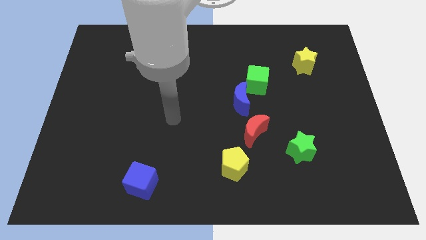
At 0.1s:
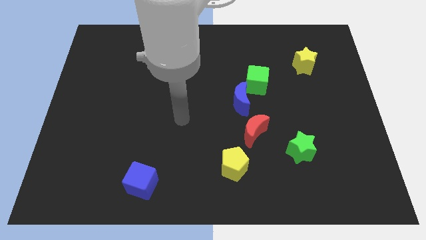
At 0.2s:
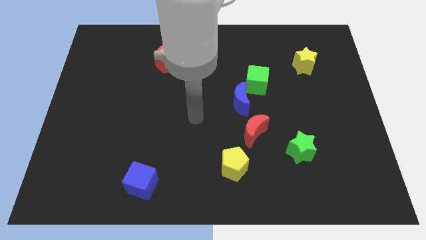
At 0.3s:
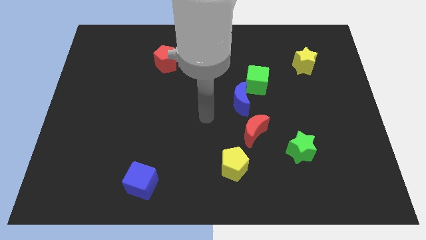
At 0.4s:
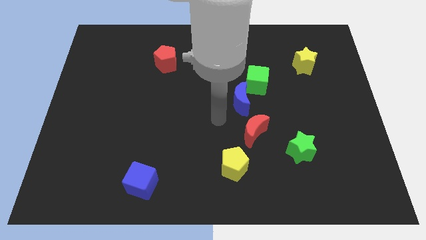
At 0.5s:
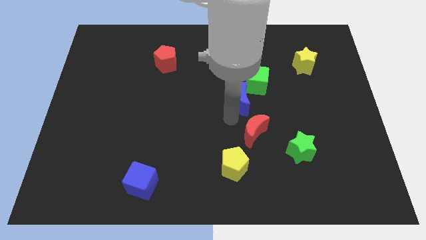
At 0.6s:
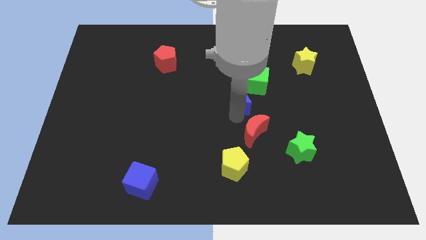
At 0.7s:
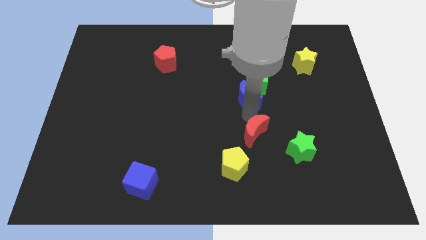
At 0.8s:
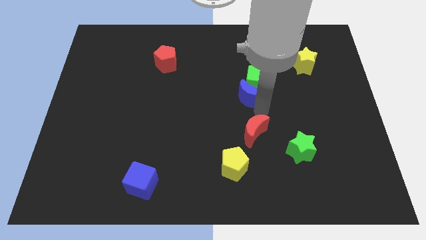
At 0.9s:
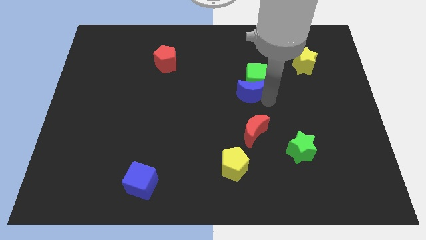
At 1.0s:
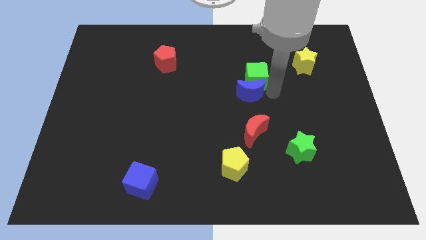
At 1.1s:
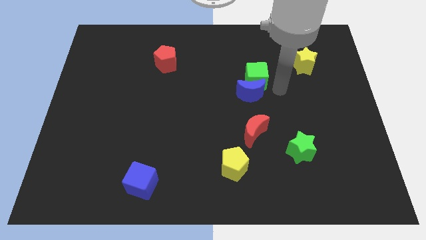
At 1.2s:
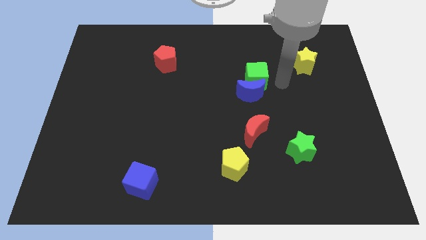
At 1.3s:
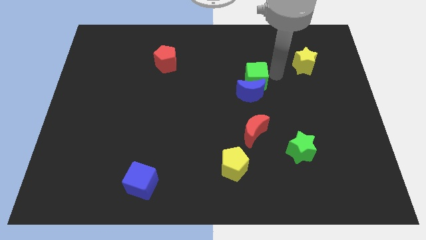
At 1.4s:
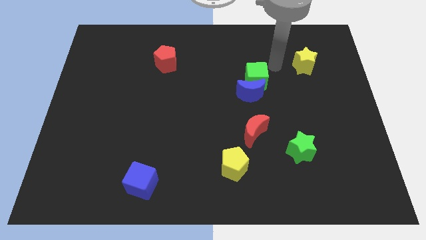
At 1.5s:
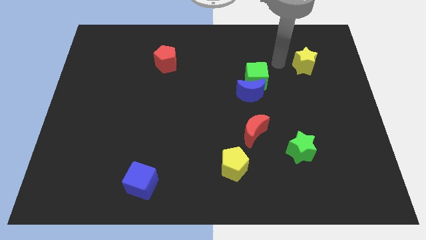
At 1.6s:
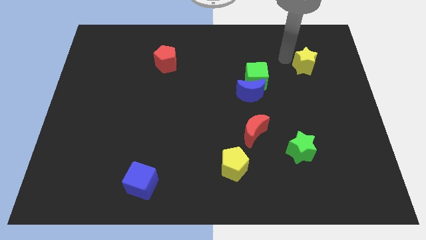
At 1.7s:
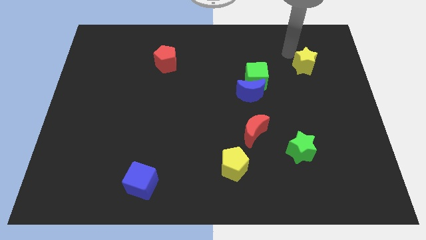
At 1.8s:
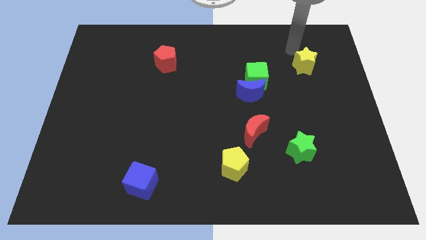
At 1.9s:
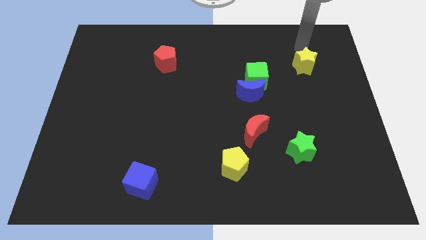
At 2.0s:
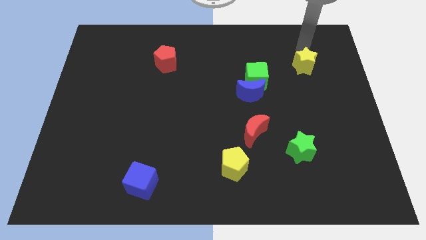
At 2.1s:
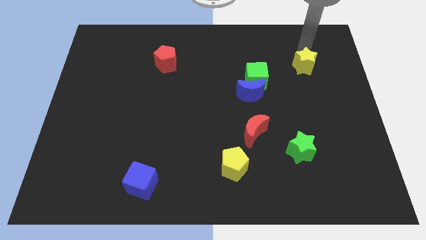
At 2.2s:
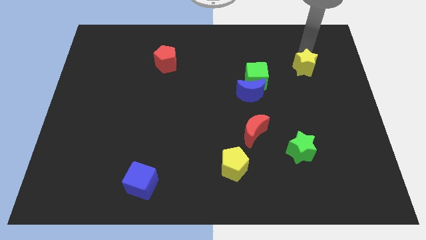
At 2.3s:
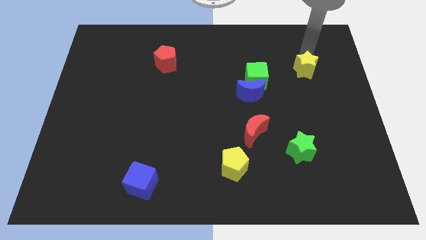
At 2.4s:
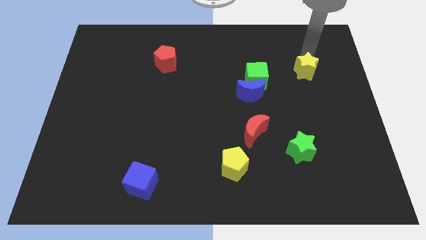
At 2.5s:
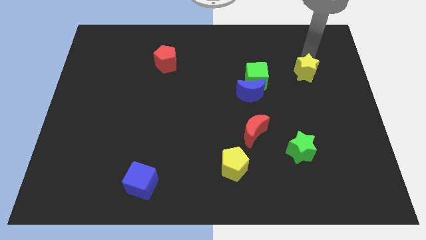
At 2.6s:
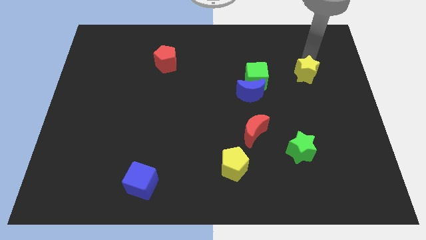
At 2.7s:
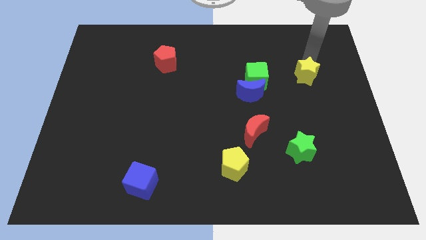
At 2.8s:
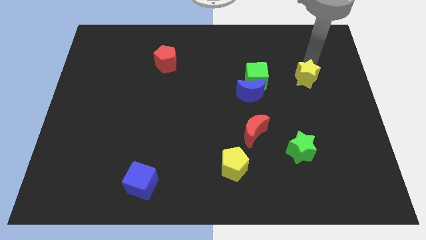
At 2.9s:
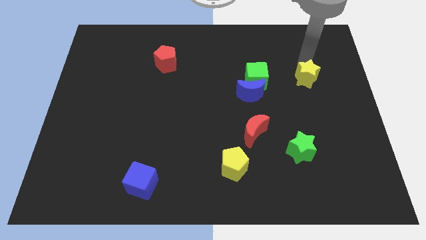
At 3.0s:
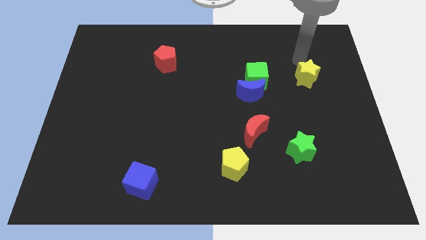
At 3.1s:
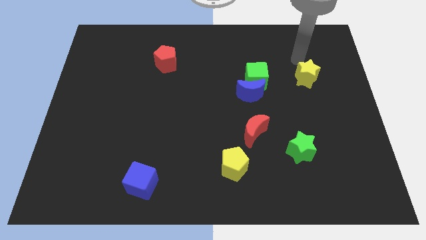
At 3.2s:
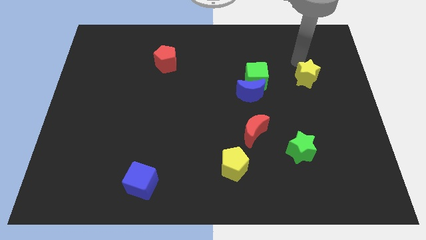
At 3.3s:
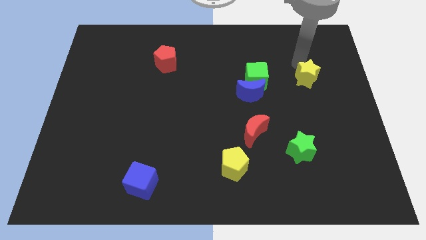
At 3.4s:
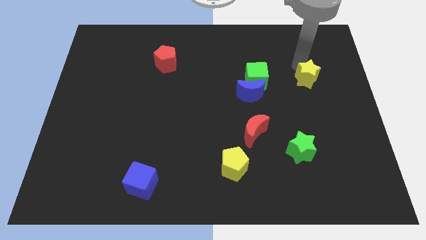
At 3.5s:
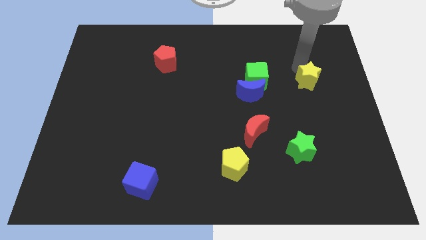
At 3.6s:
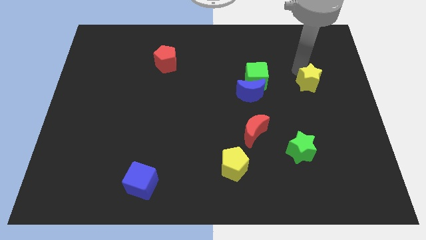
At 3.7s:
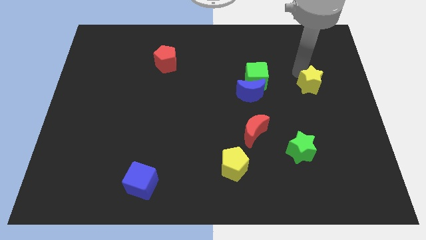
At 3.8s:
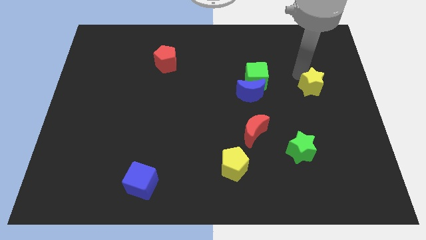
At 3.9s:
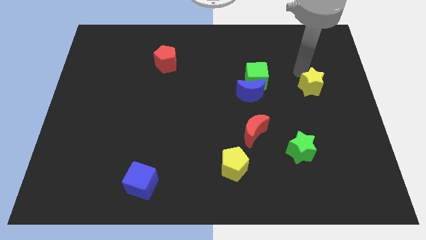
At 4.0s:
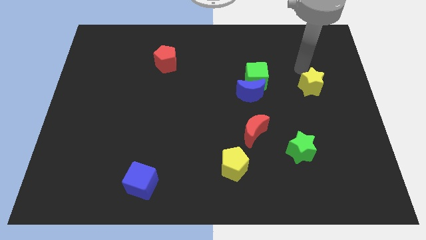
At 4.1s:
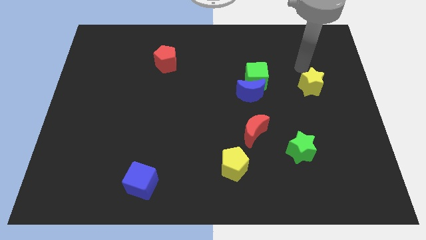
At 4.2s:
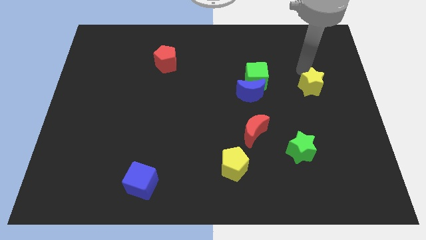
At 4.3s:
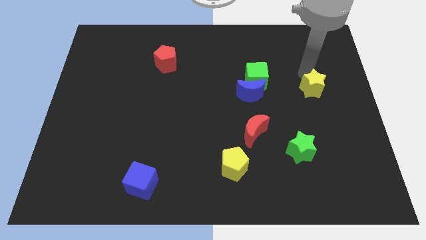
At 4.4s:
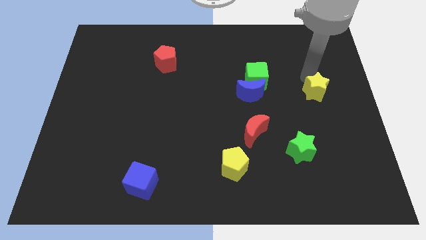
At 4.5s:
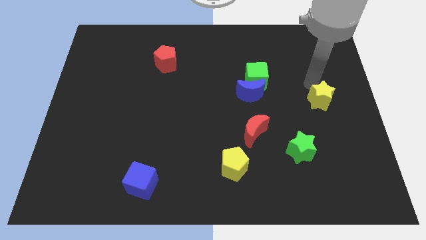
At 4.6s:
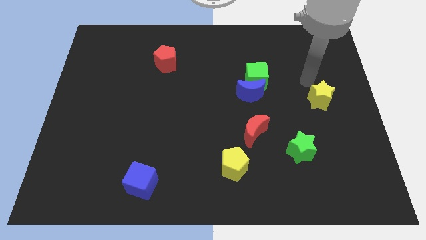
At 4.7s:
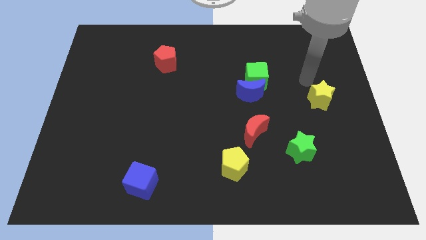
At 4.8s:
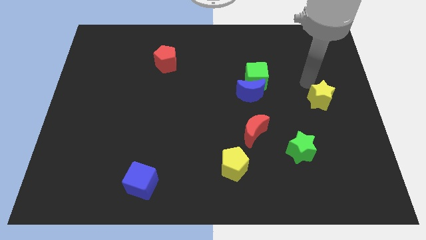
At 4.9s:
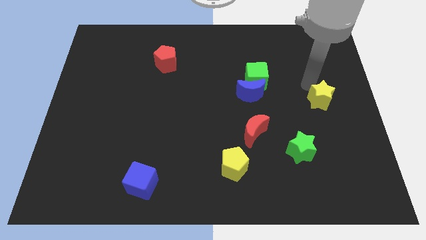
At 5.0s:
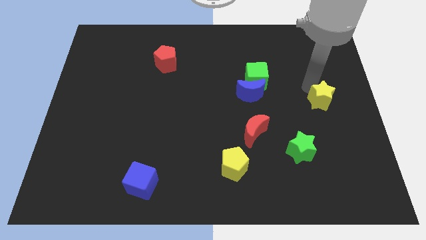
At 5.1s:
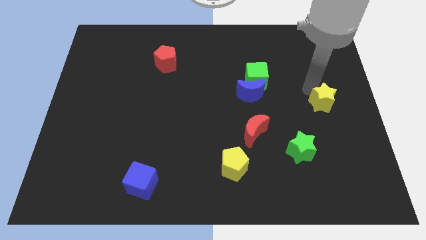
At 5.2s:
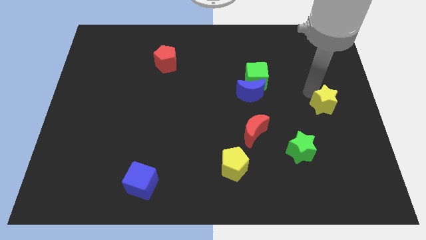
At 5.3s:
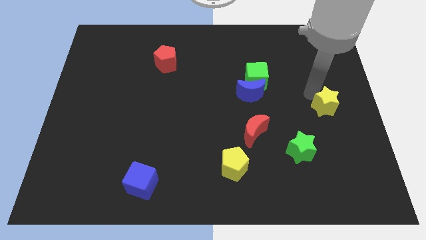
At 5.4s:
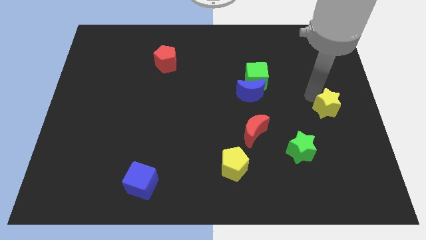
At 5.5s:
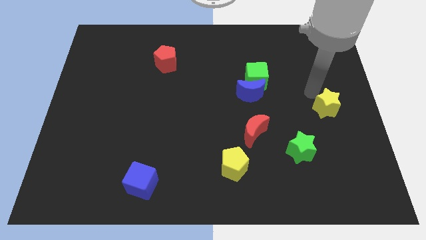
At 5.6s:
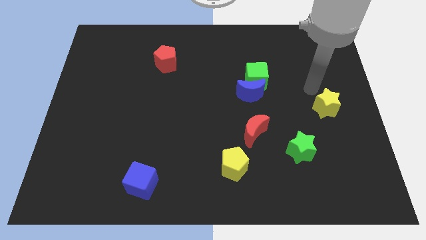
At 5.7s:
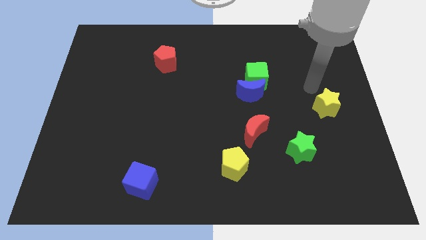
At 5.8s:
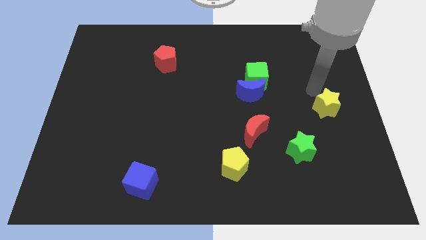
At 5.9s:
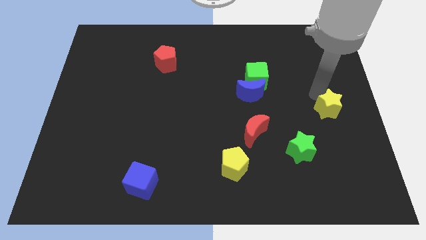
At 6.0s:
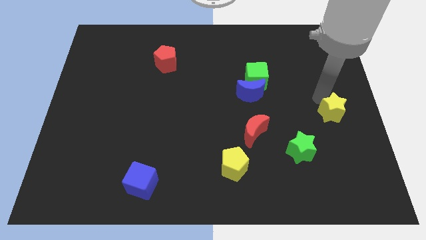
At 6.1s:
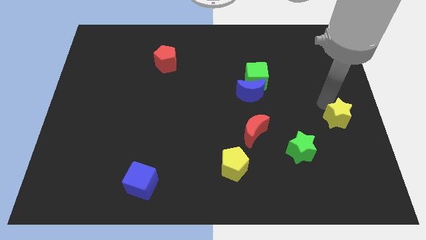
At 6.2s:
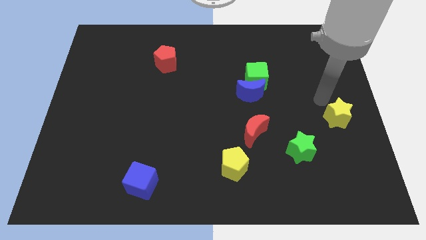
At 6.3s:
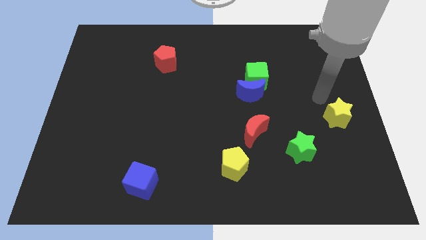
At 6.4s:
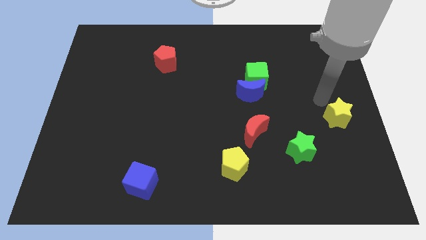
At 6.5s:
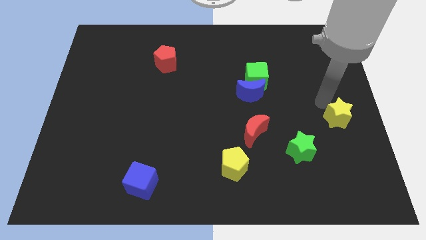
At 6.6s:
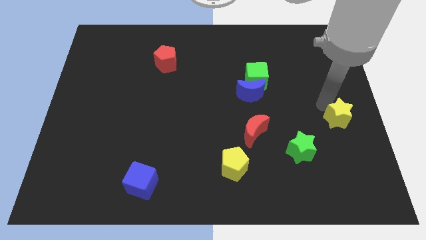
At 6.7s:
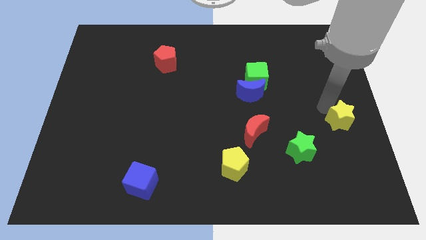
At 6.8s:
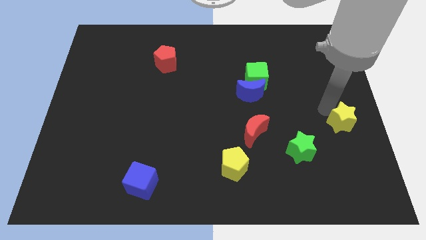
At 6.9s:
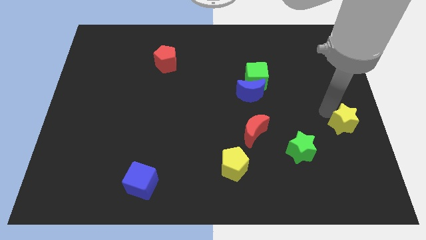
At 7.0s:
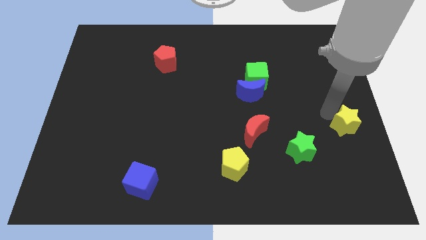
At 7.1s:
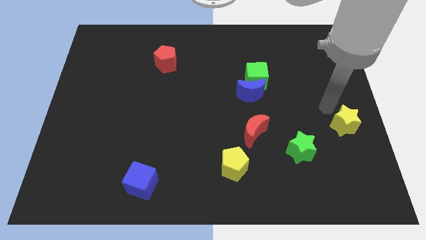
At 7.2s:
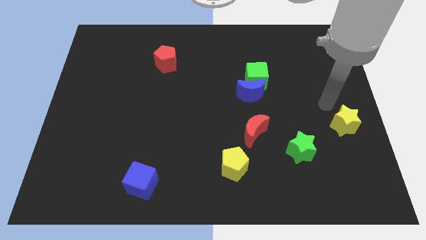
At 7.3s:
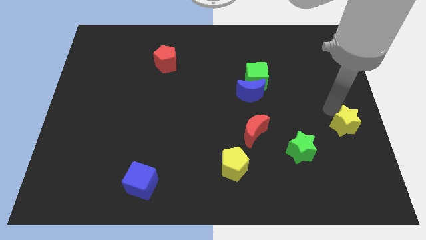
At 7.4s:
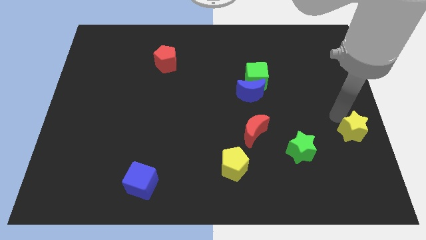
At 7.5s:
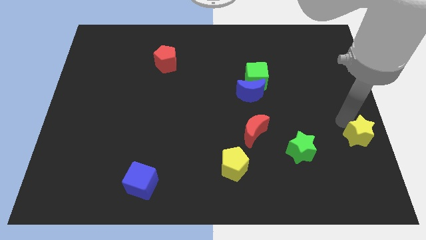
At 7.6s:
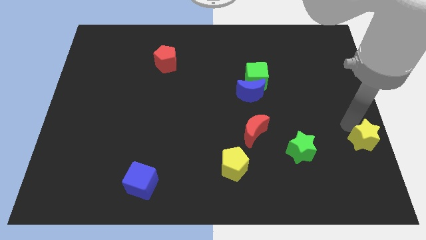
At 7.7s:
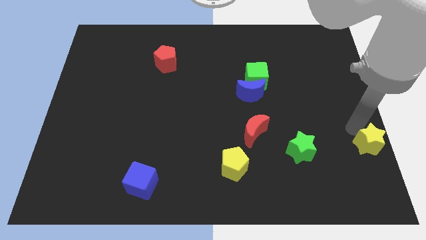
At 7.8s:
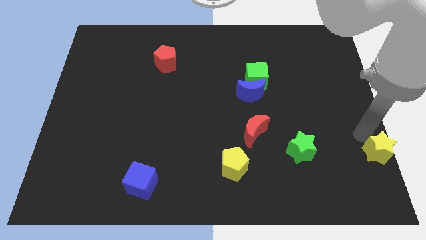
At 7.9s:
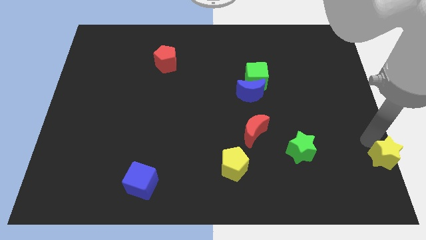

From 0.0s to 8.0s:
slide the yellow star to the bottom right corner
